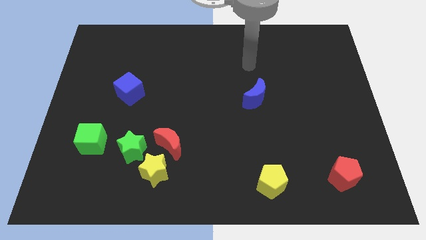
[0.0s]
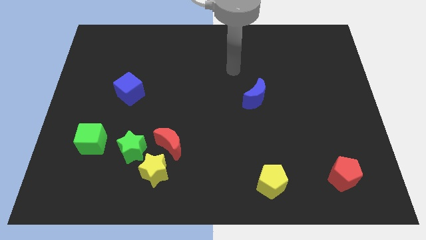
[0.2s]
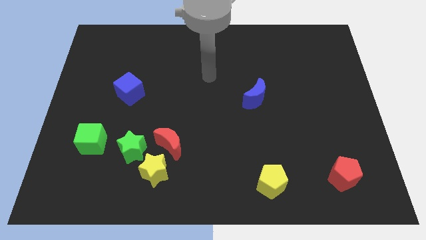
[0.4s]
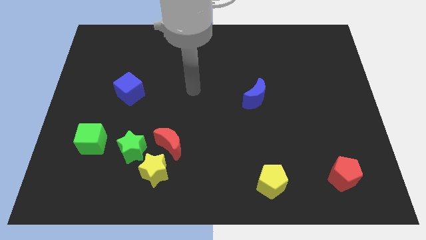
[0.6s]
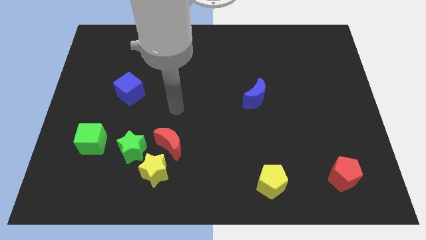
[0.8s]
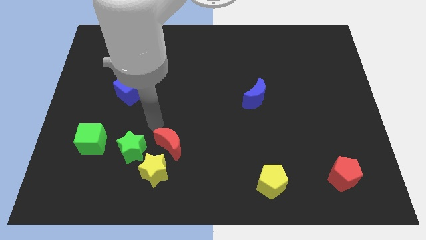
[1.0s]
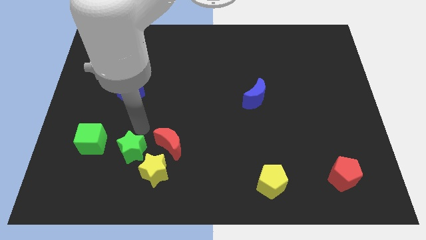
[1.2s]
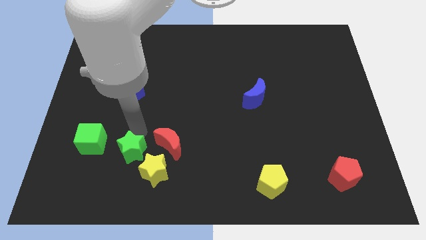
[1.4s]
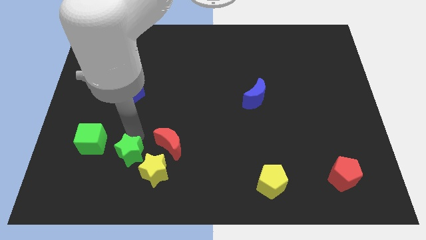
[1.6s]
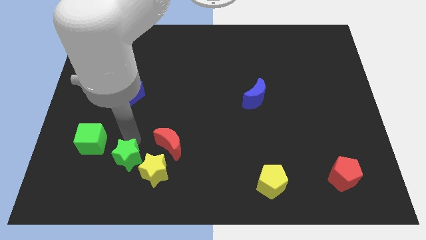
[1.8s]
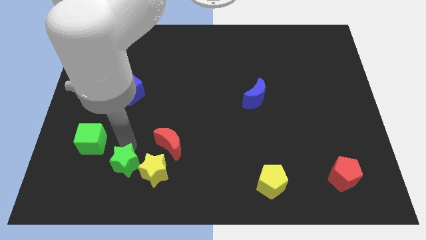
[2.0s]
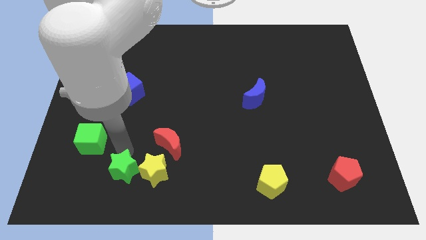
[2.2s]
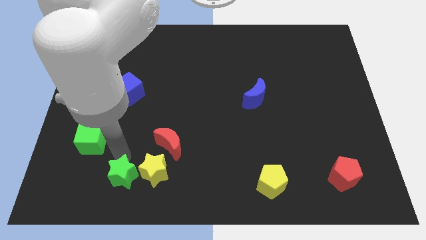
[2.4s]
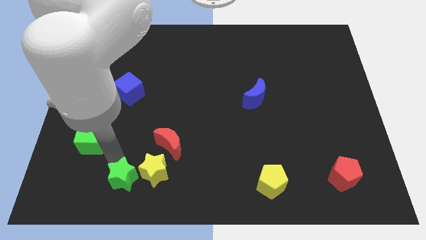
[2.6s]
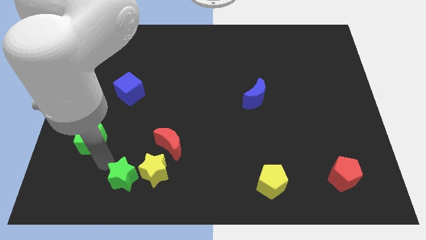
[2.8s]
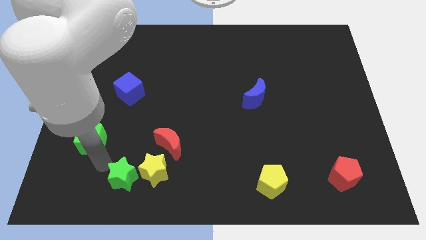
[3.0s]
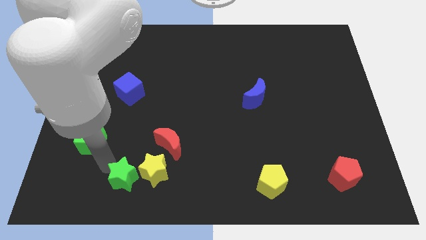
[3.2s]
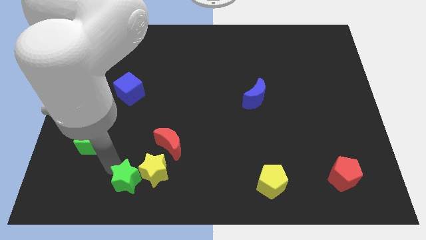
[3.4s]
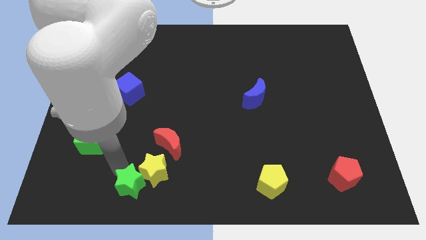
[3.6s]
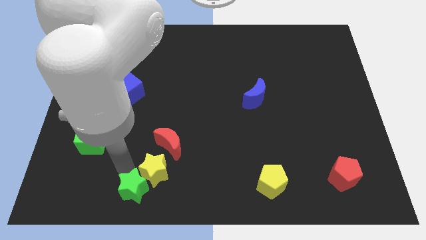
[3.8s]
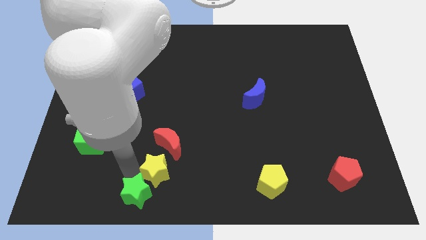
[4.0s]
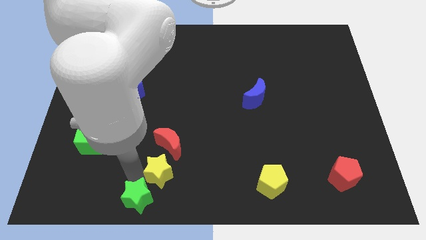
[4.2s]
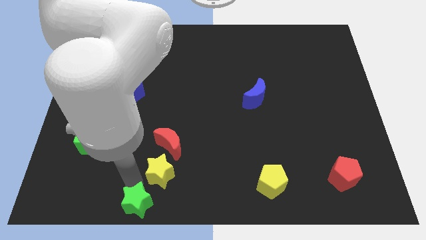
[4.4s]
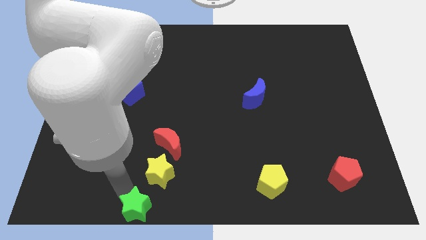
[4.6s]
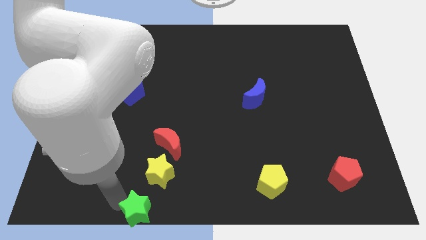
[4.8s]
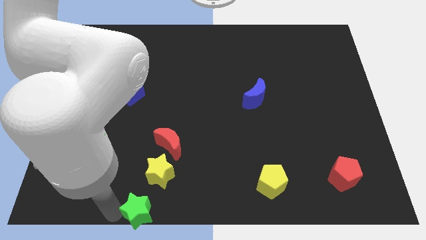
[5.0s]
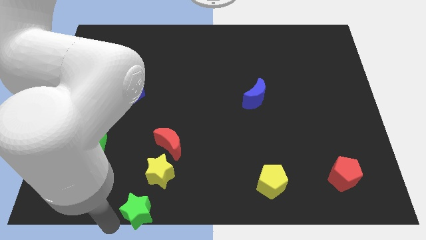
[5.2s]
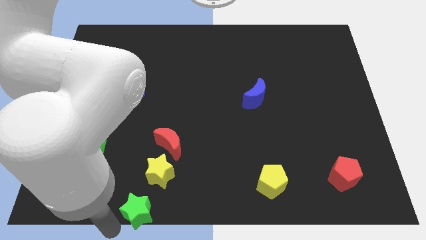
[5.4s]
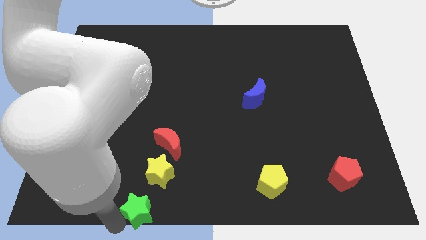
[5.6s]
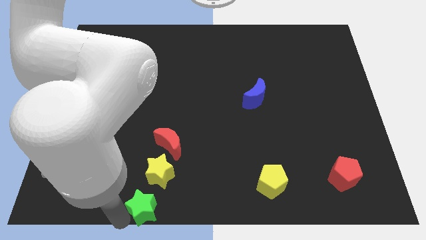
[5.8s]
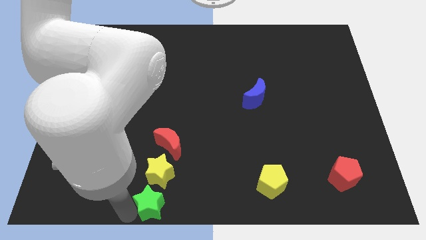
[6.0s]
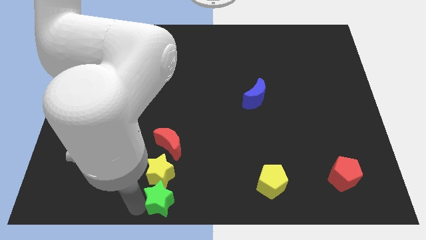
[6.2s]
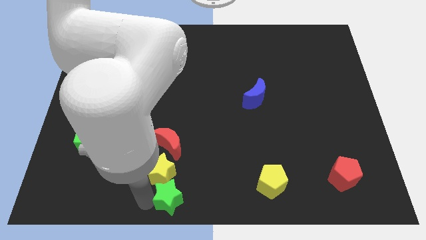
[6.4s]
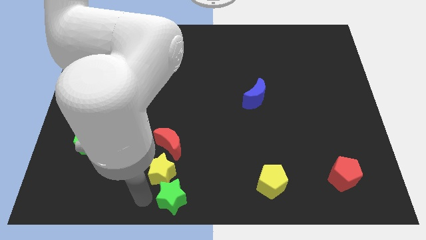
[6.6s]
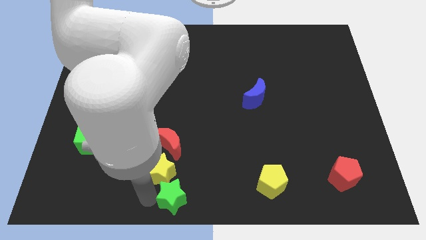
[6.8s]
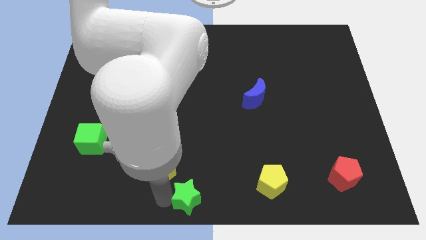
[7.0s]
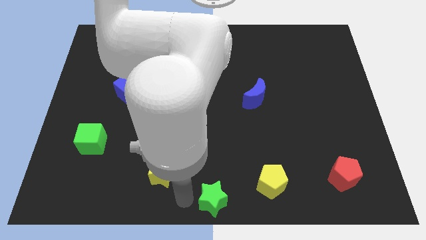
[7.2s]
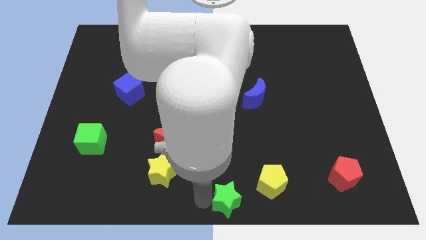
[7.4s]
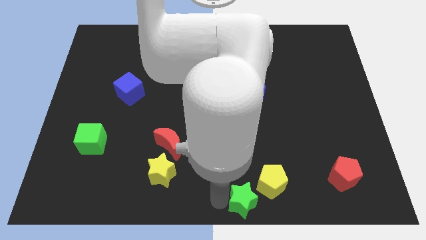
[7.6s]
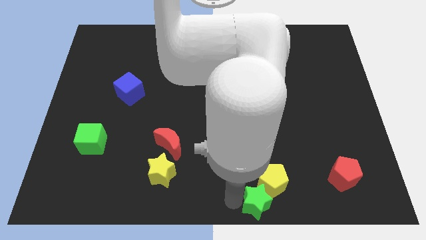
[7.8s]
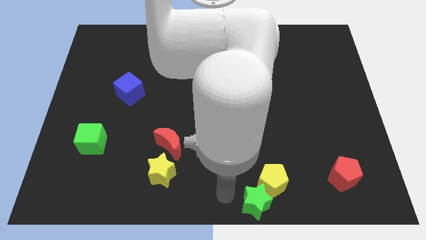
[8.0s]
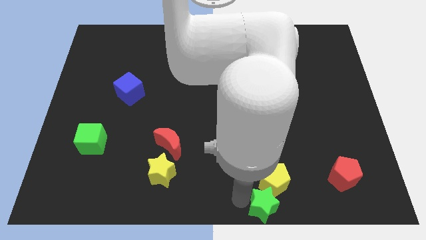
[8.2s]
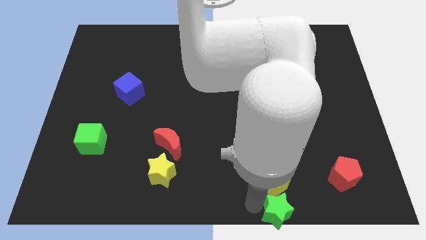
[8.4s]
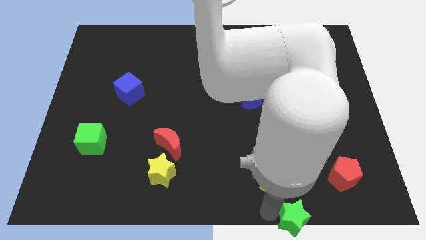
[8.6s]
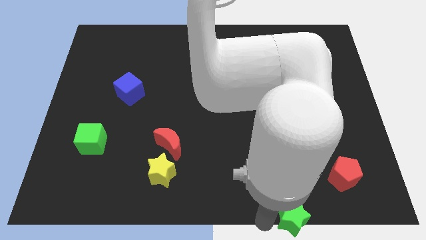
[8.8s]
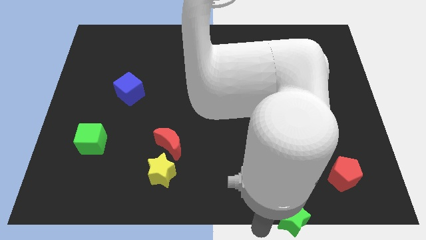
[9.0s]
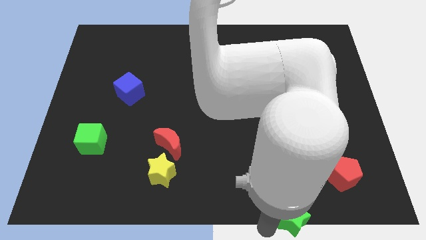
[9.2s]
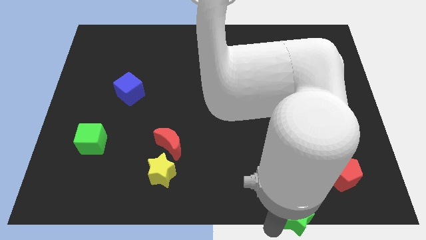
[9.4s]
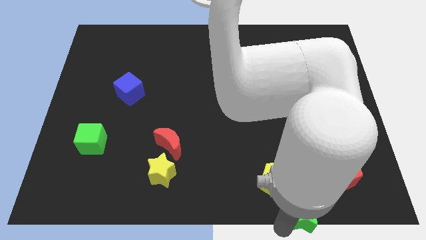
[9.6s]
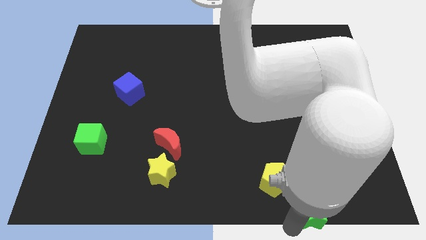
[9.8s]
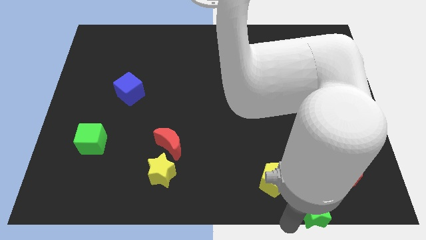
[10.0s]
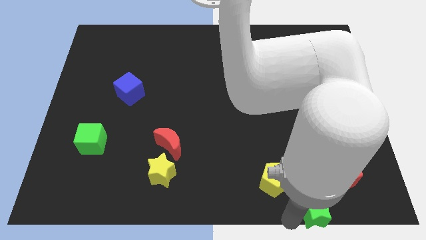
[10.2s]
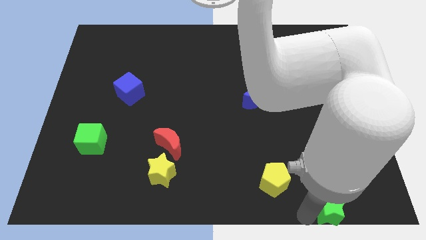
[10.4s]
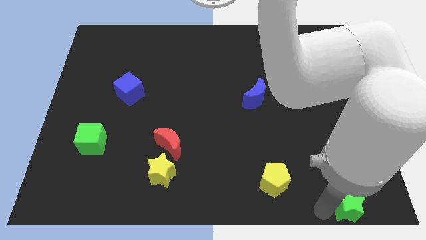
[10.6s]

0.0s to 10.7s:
push the green star to the lower right corner
